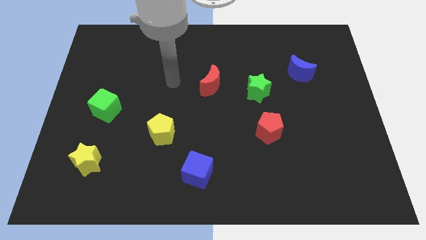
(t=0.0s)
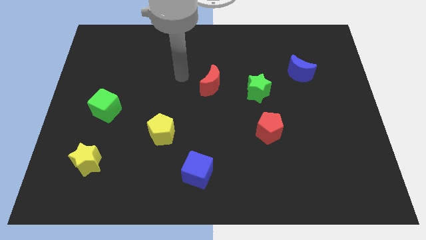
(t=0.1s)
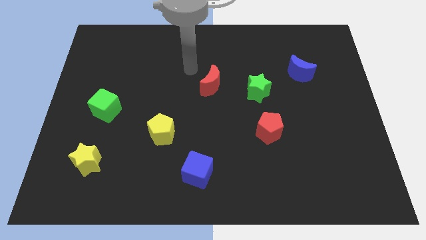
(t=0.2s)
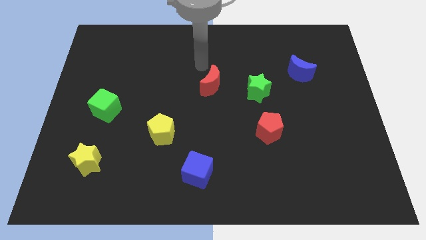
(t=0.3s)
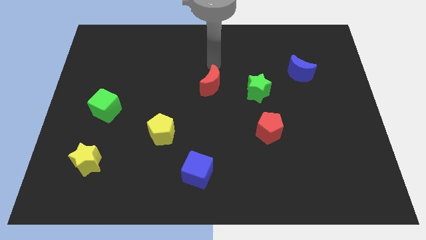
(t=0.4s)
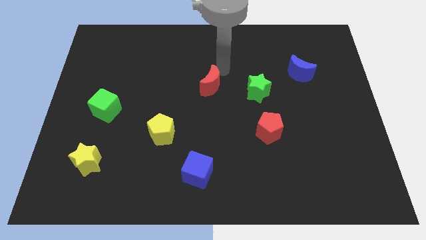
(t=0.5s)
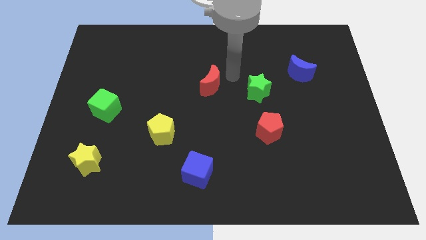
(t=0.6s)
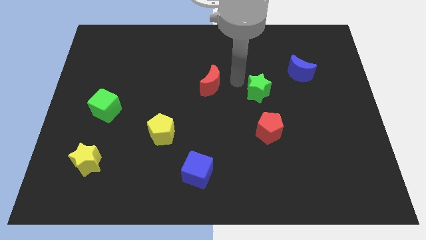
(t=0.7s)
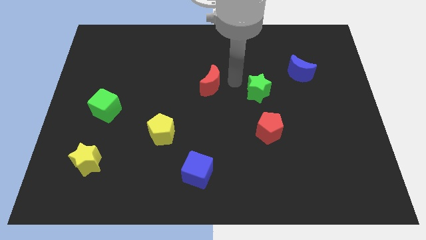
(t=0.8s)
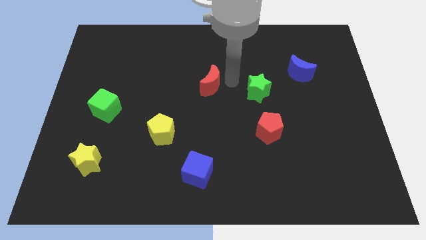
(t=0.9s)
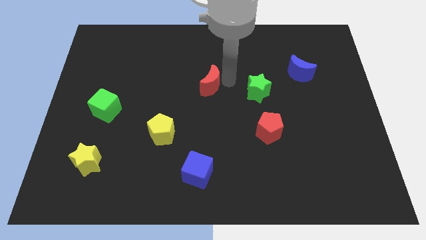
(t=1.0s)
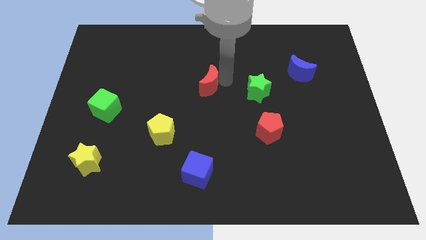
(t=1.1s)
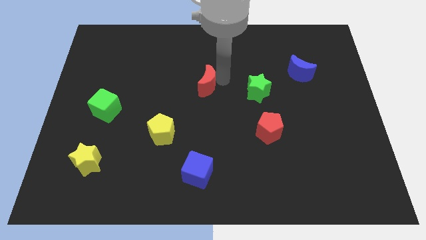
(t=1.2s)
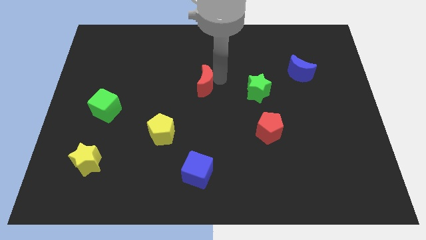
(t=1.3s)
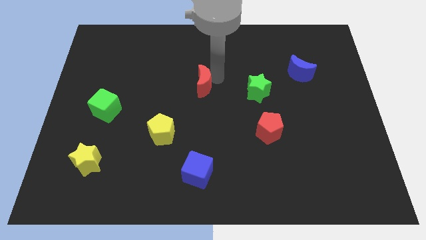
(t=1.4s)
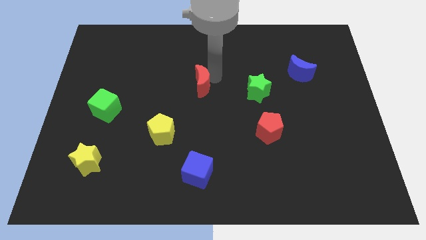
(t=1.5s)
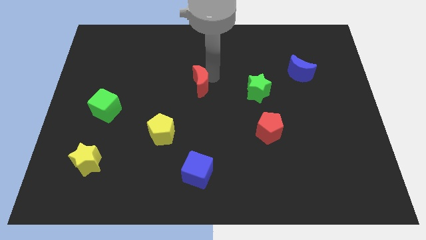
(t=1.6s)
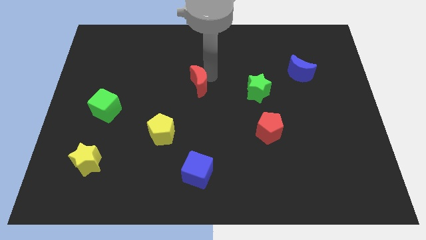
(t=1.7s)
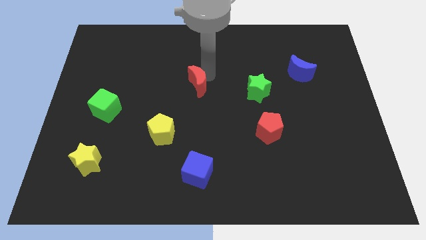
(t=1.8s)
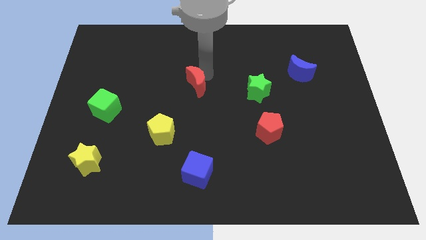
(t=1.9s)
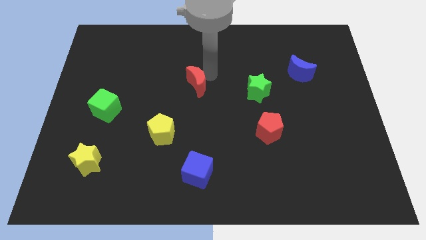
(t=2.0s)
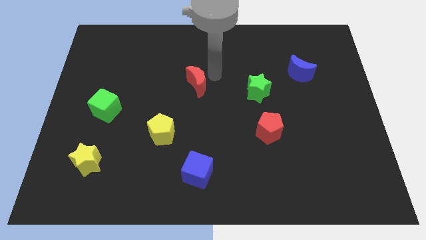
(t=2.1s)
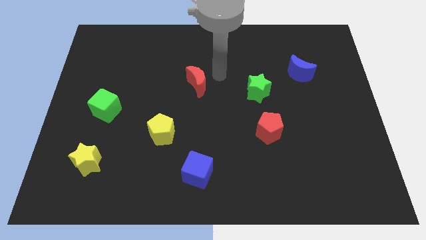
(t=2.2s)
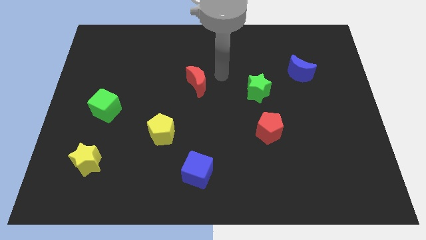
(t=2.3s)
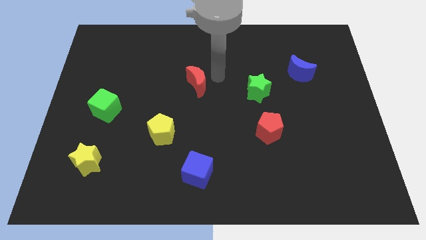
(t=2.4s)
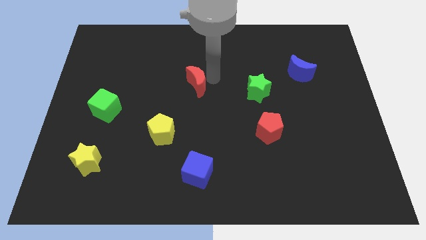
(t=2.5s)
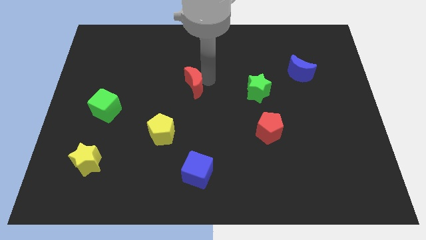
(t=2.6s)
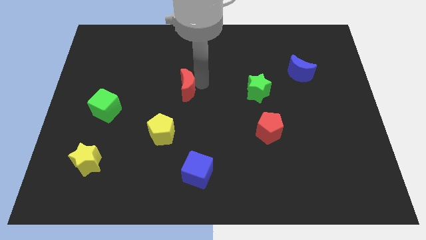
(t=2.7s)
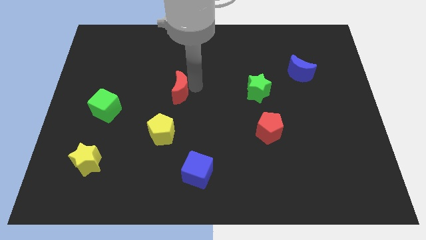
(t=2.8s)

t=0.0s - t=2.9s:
move the red moon to the left slightly

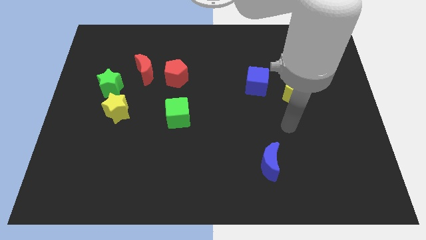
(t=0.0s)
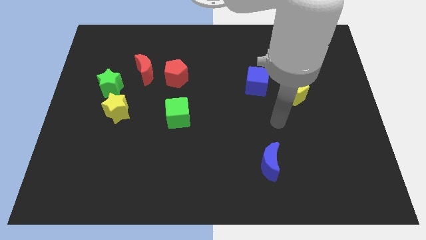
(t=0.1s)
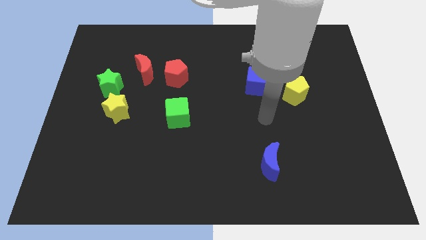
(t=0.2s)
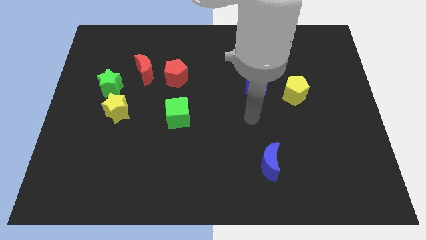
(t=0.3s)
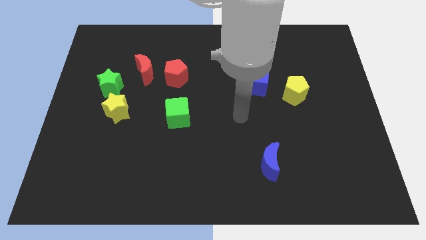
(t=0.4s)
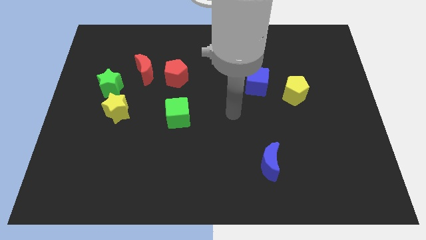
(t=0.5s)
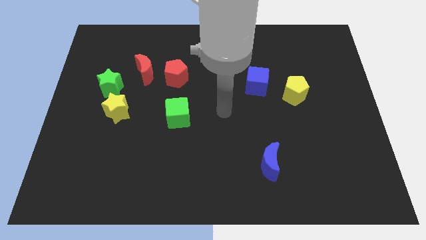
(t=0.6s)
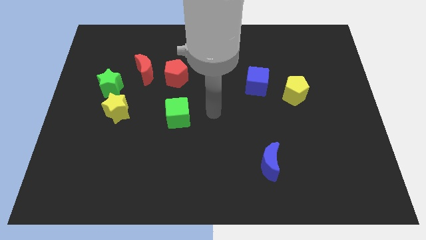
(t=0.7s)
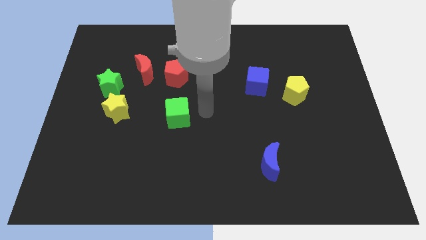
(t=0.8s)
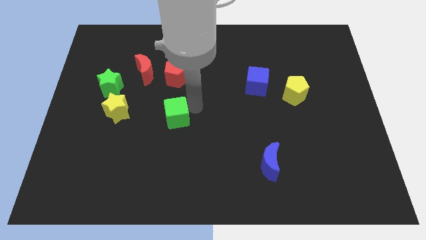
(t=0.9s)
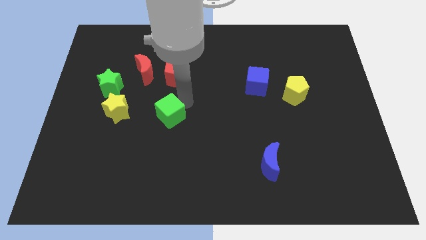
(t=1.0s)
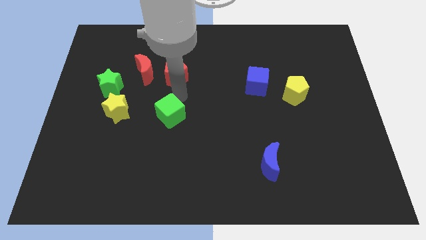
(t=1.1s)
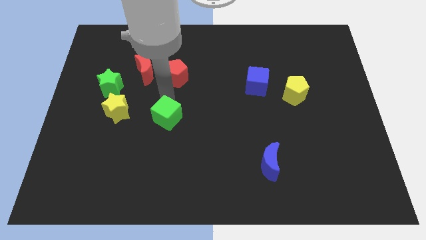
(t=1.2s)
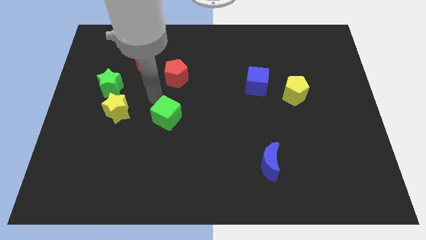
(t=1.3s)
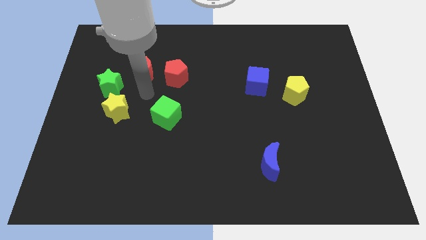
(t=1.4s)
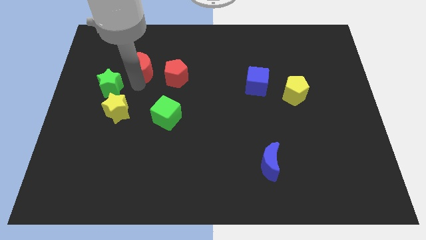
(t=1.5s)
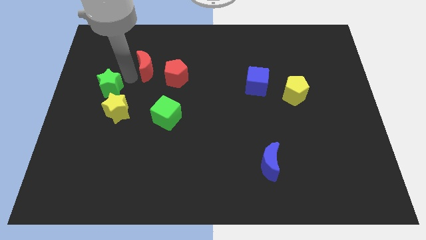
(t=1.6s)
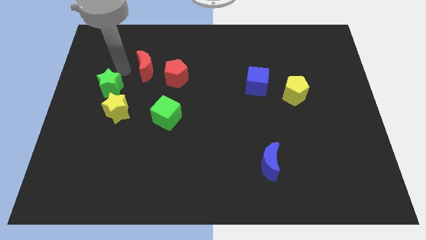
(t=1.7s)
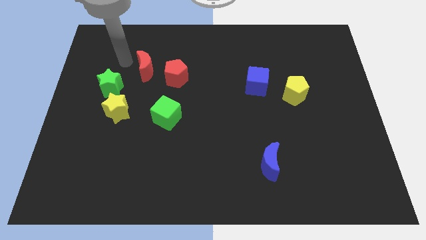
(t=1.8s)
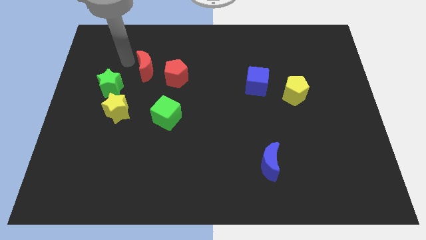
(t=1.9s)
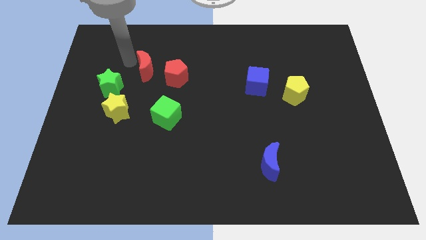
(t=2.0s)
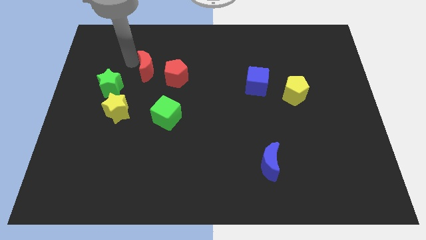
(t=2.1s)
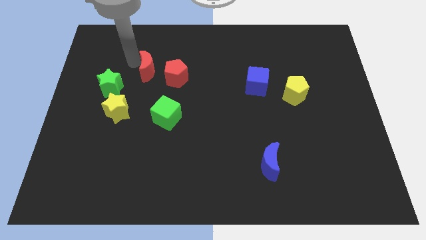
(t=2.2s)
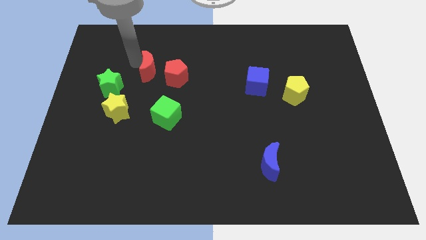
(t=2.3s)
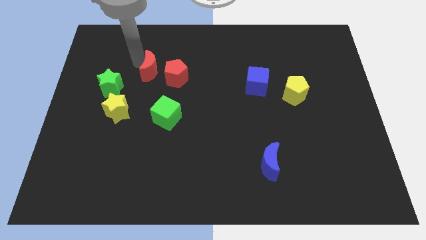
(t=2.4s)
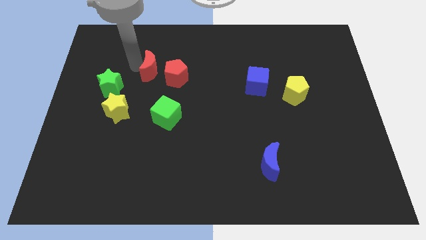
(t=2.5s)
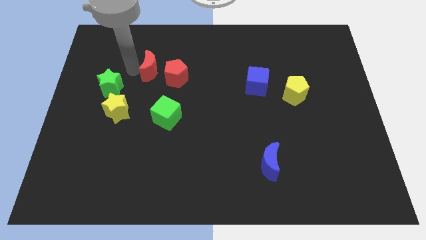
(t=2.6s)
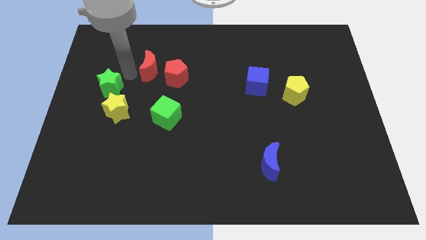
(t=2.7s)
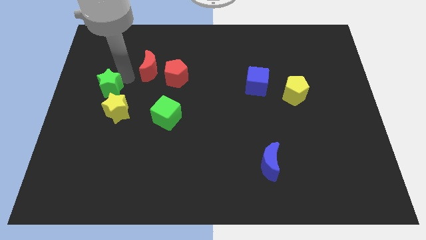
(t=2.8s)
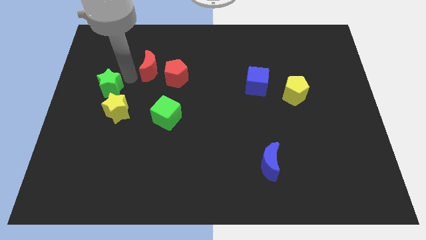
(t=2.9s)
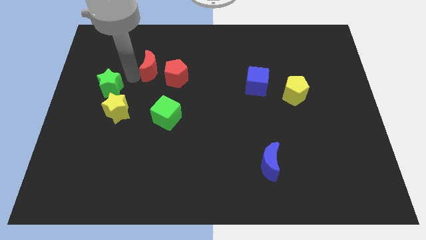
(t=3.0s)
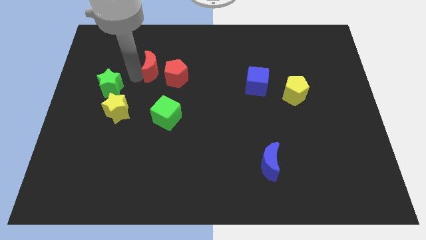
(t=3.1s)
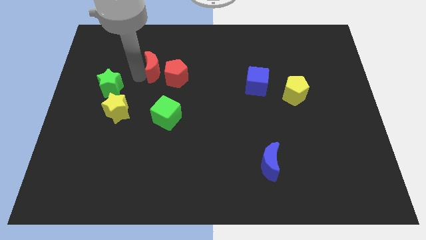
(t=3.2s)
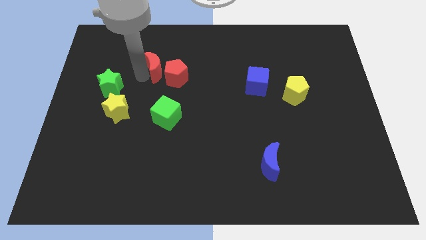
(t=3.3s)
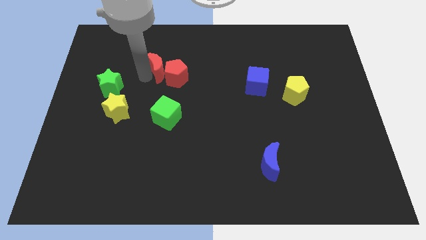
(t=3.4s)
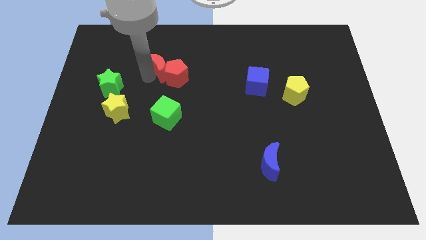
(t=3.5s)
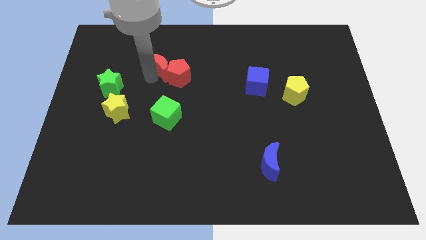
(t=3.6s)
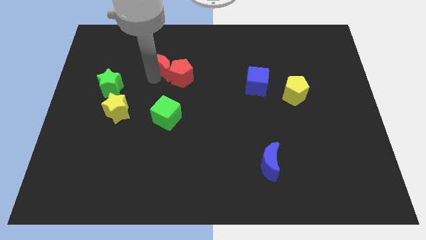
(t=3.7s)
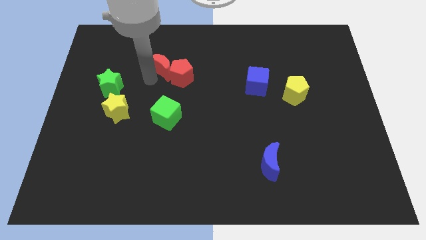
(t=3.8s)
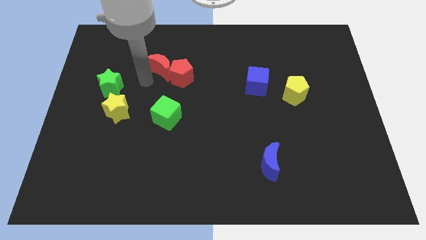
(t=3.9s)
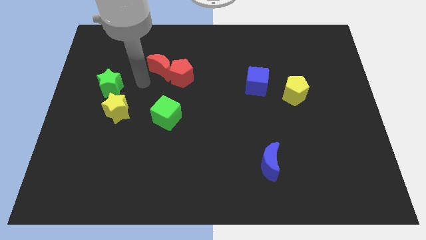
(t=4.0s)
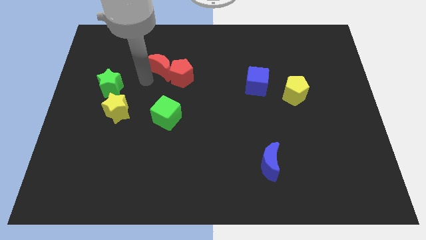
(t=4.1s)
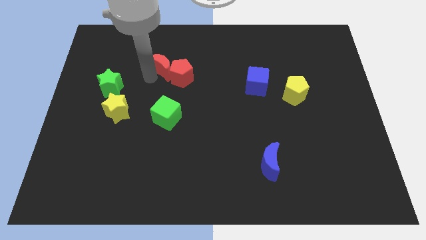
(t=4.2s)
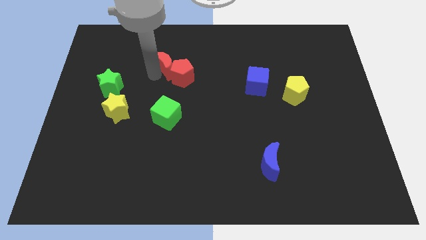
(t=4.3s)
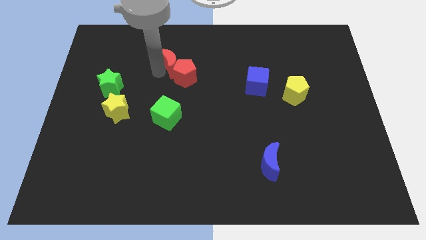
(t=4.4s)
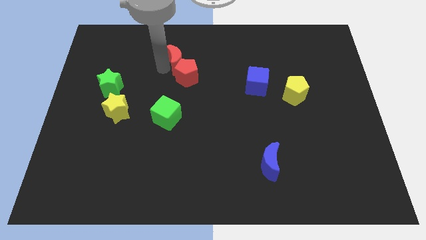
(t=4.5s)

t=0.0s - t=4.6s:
push the red moon right a little

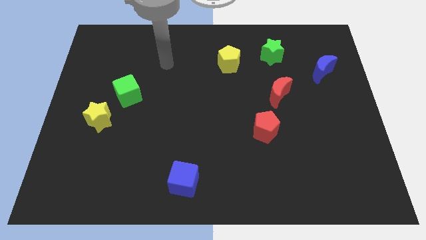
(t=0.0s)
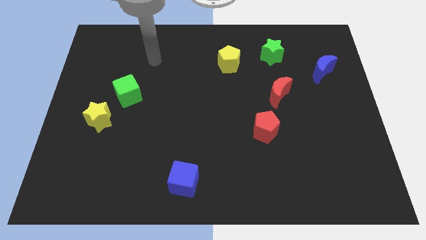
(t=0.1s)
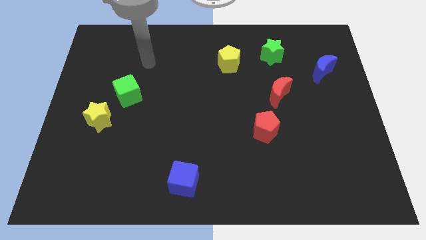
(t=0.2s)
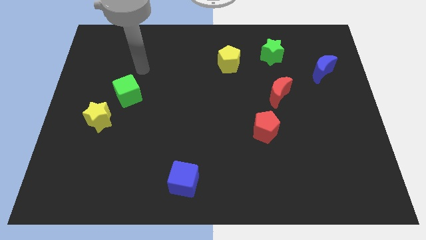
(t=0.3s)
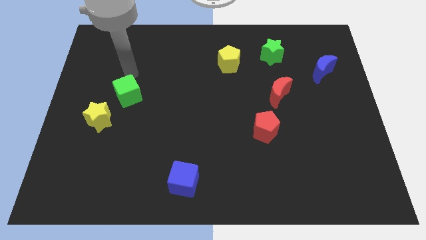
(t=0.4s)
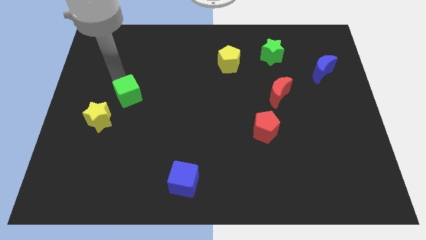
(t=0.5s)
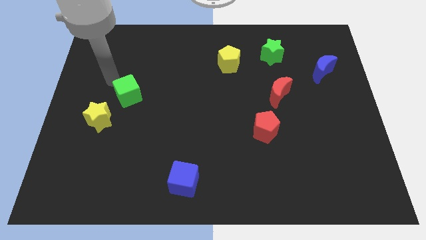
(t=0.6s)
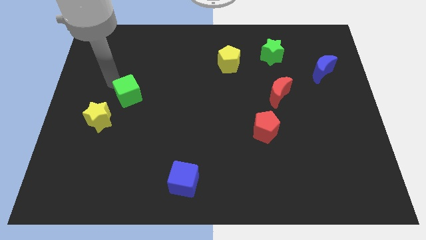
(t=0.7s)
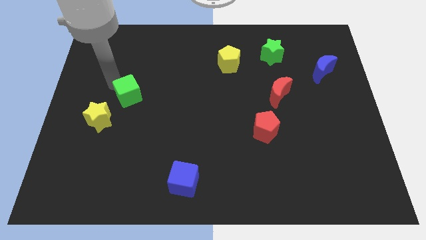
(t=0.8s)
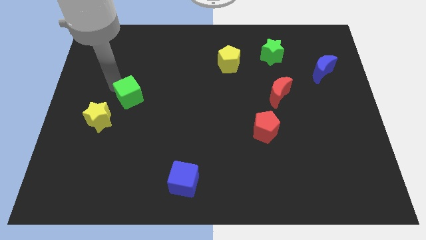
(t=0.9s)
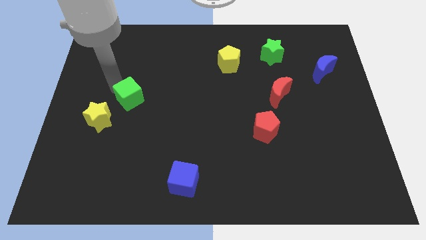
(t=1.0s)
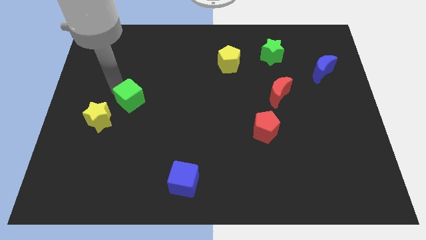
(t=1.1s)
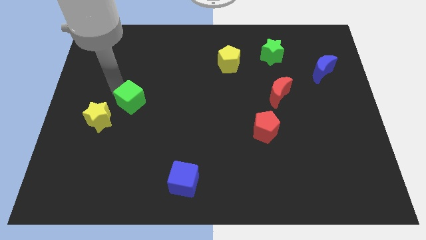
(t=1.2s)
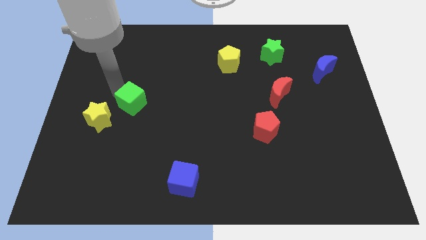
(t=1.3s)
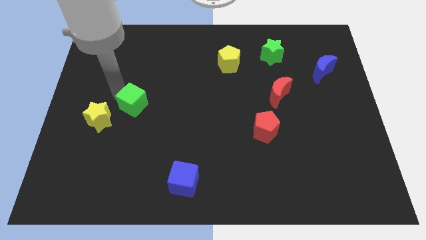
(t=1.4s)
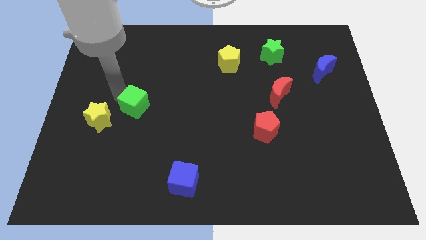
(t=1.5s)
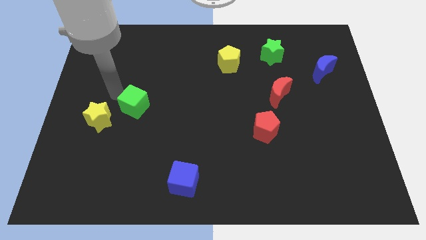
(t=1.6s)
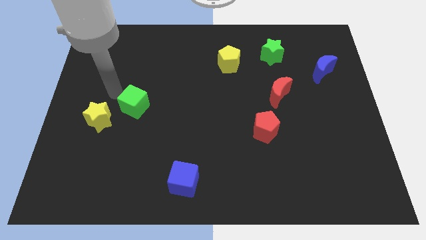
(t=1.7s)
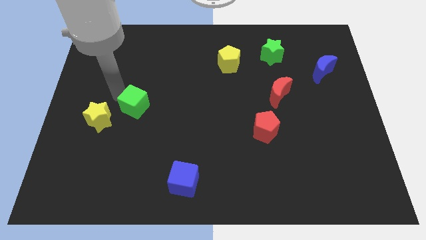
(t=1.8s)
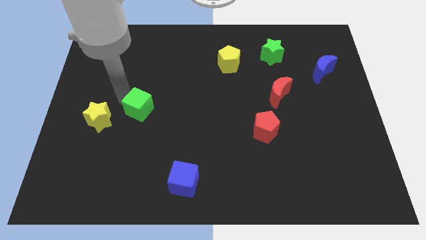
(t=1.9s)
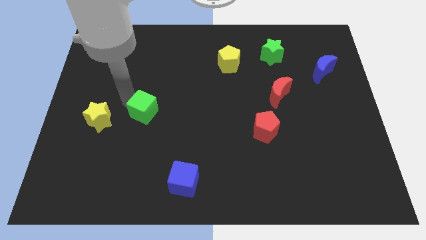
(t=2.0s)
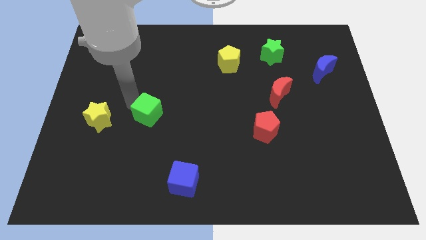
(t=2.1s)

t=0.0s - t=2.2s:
slightly move the green cube down and right diagonally
